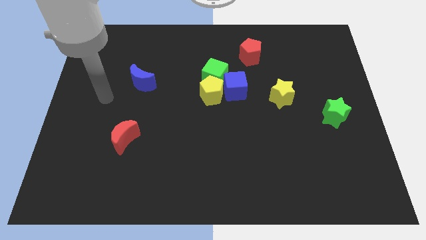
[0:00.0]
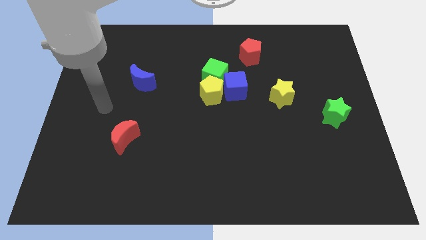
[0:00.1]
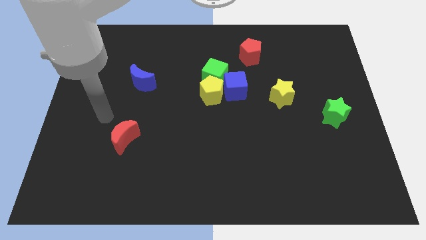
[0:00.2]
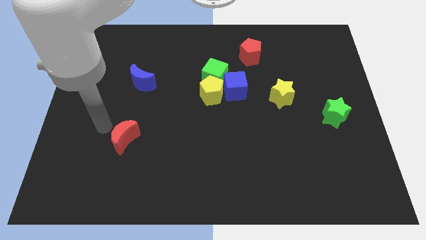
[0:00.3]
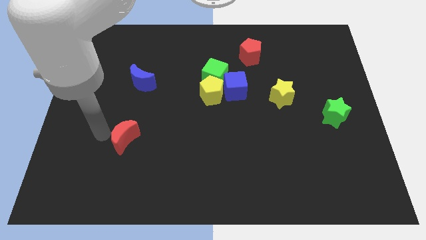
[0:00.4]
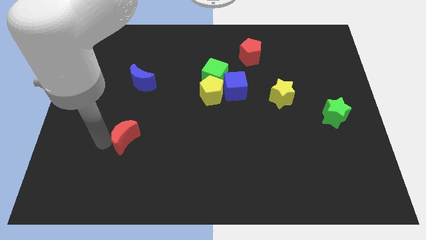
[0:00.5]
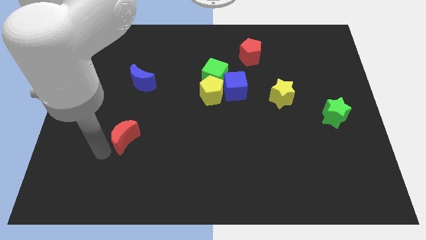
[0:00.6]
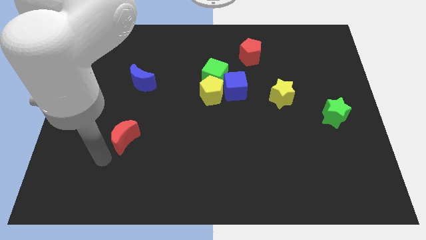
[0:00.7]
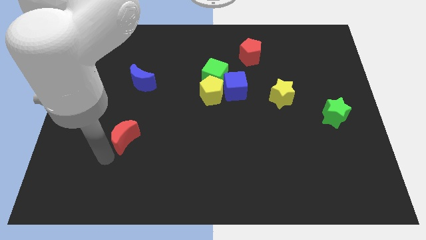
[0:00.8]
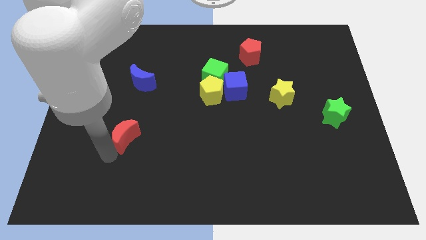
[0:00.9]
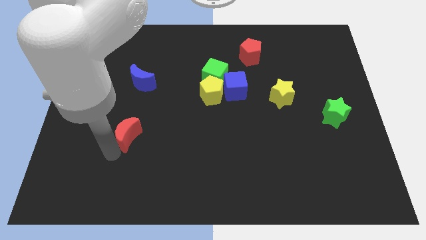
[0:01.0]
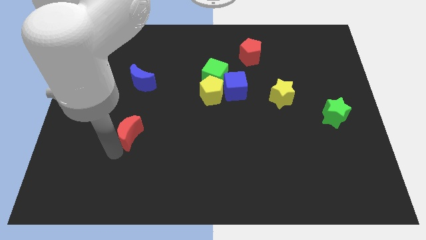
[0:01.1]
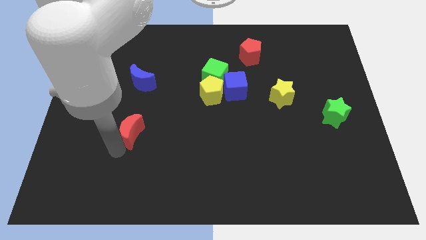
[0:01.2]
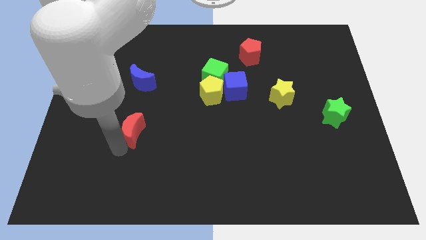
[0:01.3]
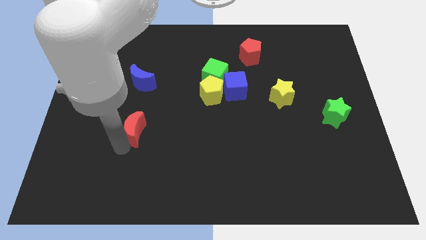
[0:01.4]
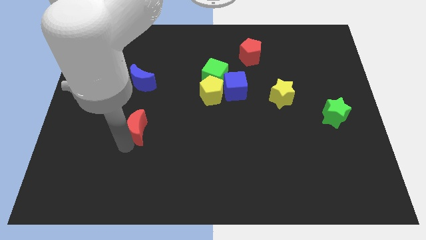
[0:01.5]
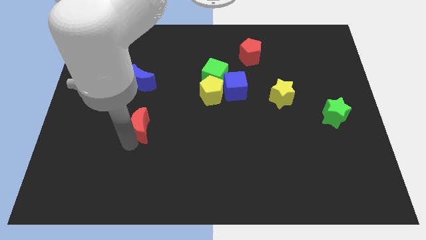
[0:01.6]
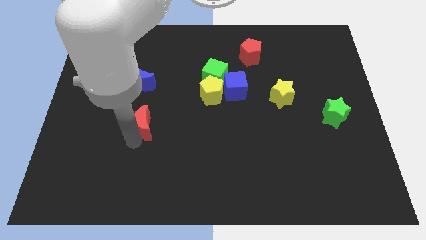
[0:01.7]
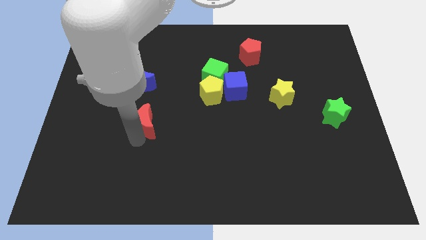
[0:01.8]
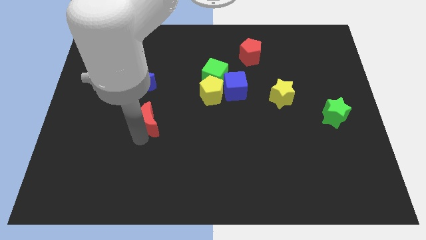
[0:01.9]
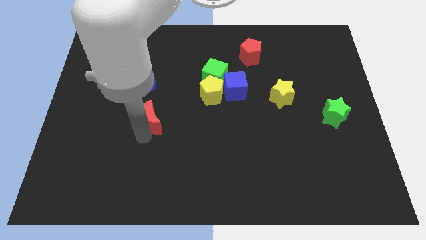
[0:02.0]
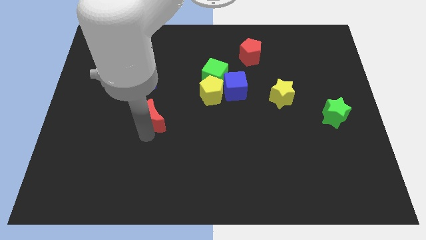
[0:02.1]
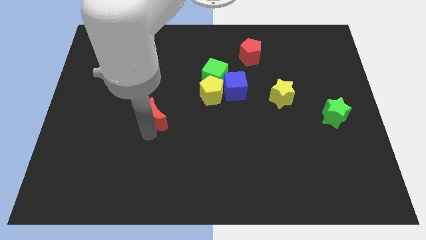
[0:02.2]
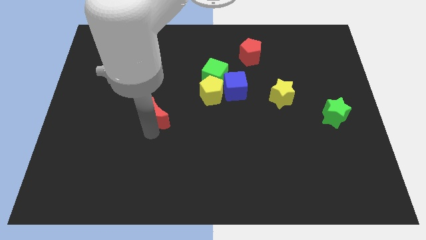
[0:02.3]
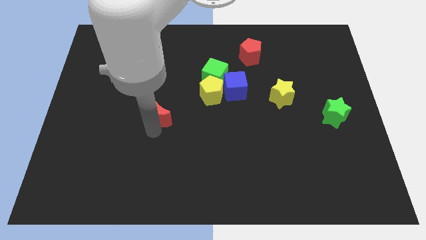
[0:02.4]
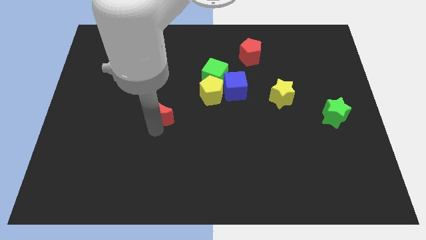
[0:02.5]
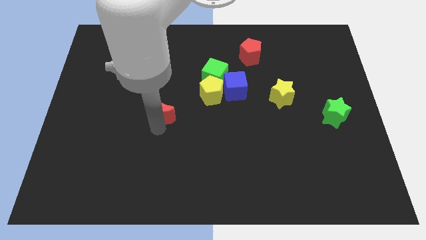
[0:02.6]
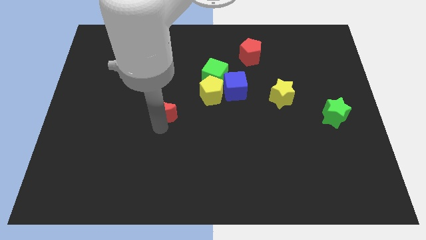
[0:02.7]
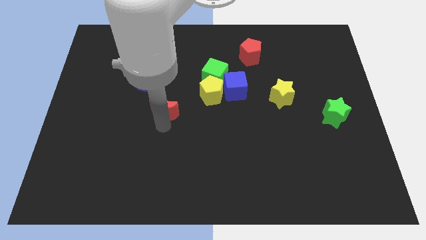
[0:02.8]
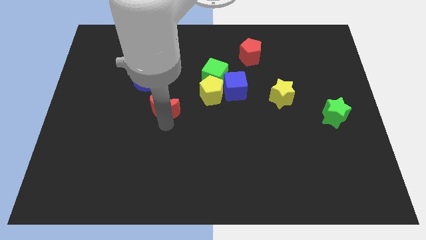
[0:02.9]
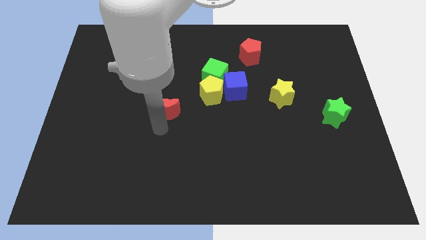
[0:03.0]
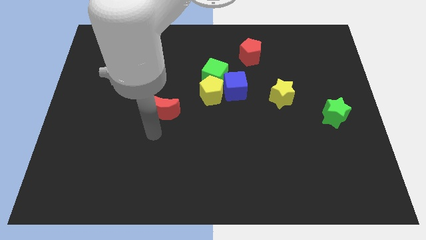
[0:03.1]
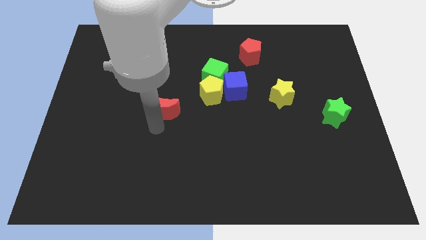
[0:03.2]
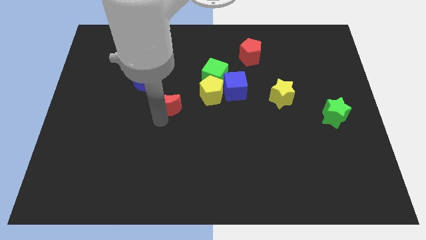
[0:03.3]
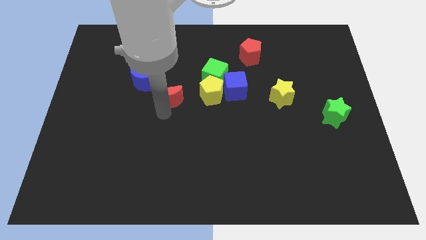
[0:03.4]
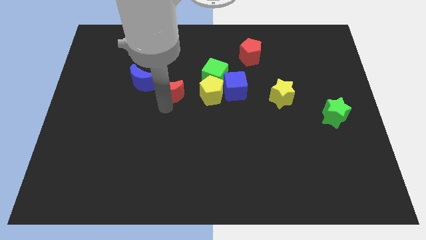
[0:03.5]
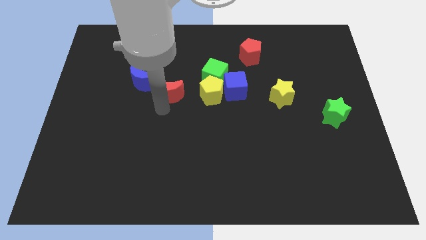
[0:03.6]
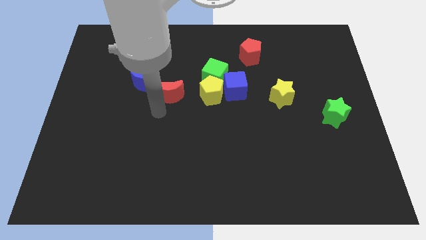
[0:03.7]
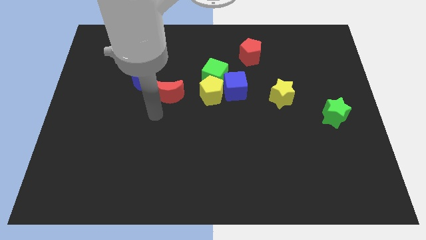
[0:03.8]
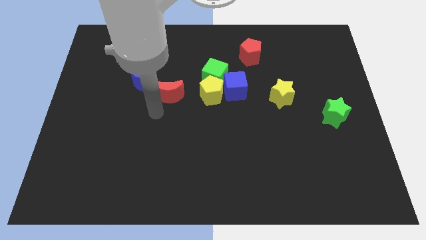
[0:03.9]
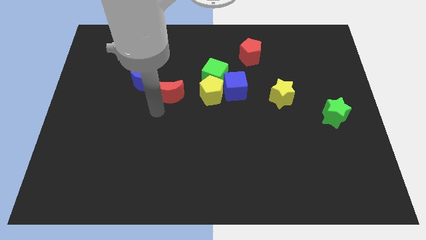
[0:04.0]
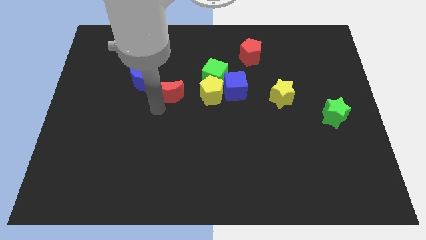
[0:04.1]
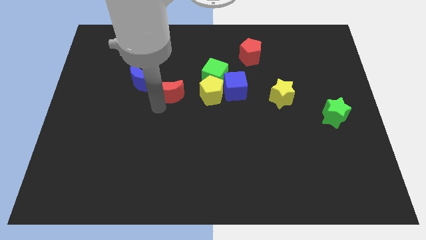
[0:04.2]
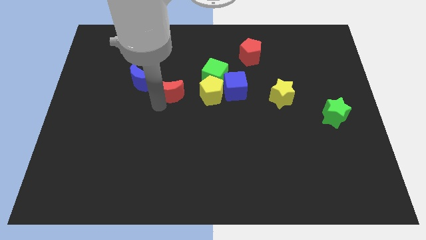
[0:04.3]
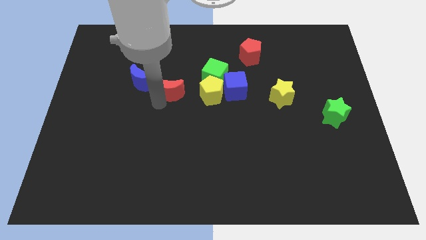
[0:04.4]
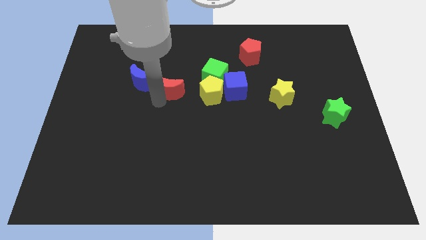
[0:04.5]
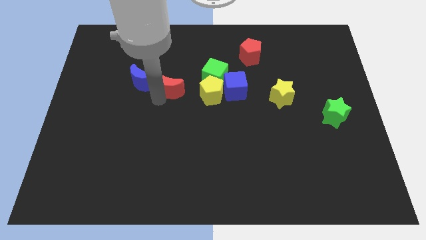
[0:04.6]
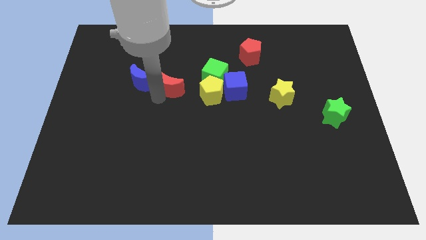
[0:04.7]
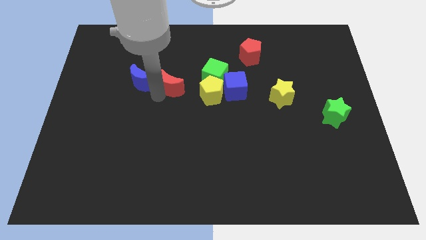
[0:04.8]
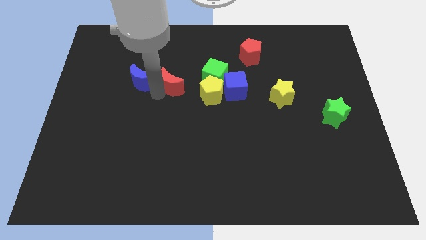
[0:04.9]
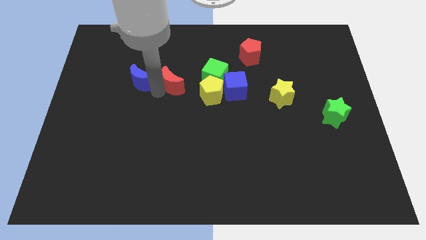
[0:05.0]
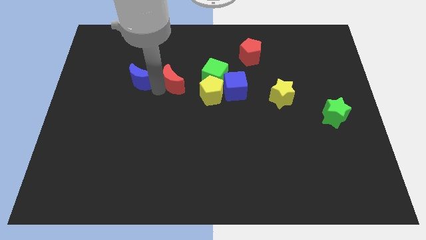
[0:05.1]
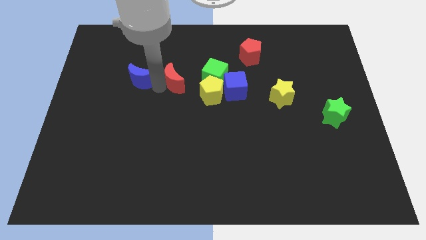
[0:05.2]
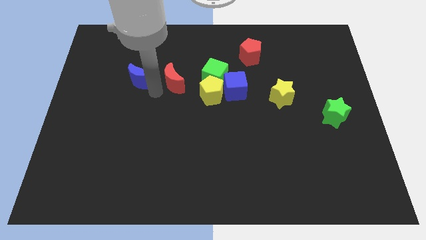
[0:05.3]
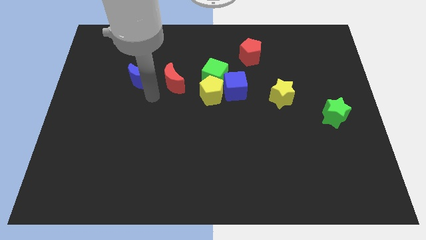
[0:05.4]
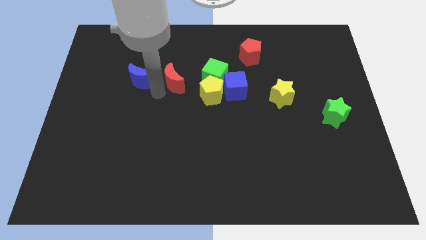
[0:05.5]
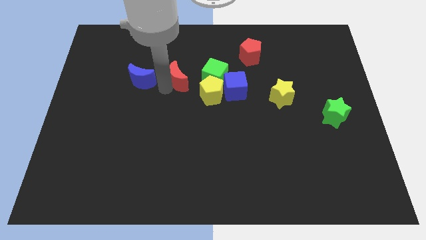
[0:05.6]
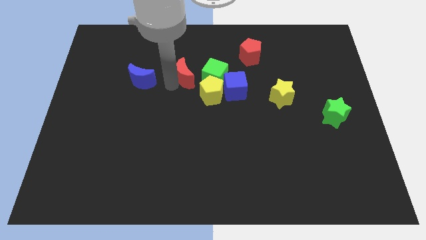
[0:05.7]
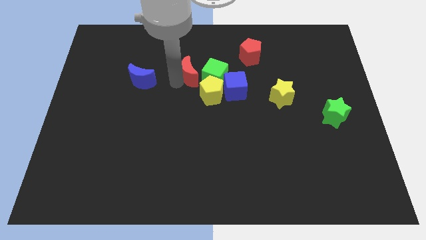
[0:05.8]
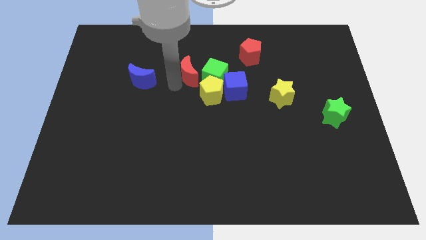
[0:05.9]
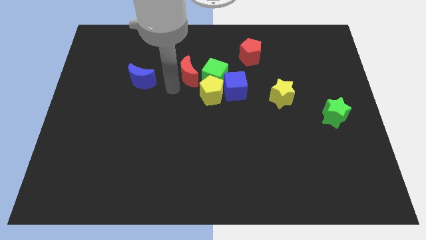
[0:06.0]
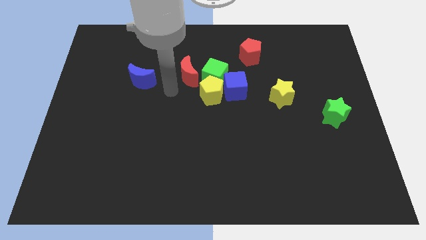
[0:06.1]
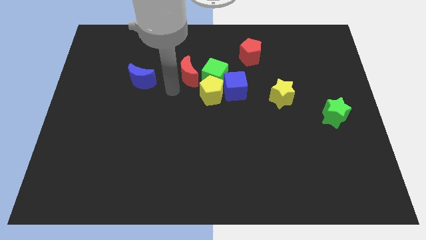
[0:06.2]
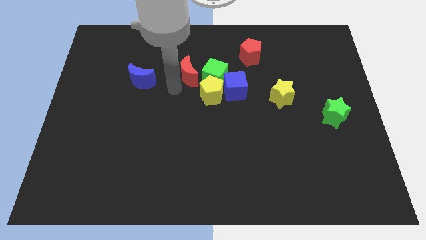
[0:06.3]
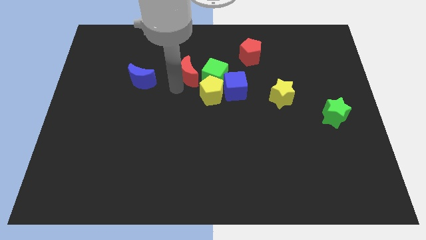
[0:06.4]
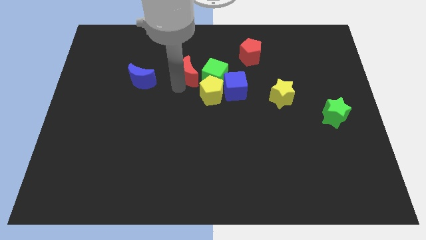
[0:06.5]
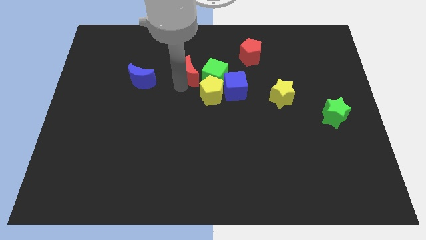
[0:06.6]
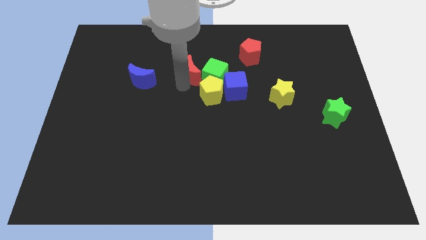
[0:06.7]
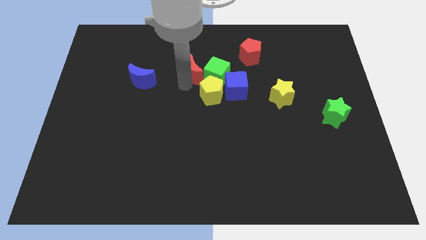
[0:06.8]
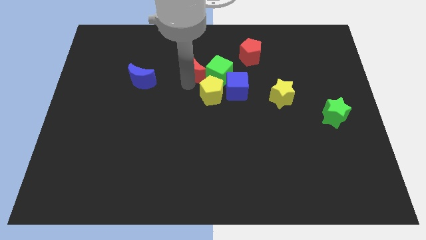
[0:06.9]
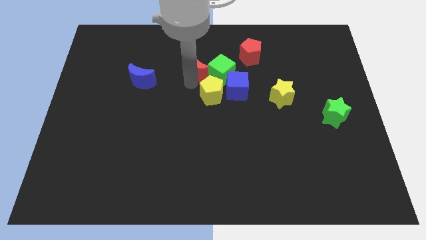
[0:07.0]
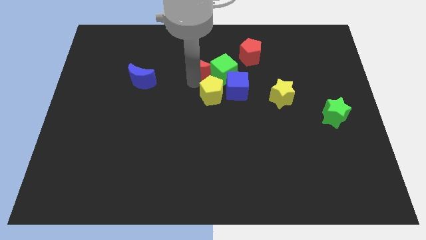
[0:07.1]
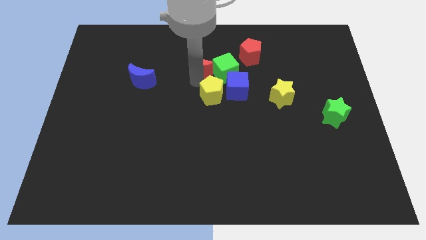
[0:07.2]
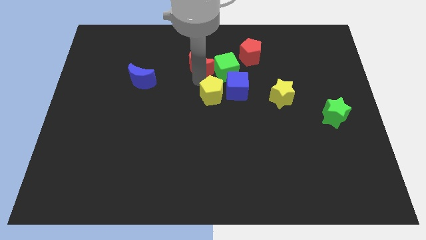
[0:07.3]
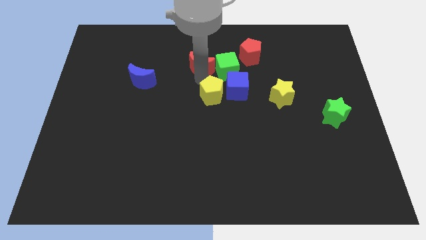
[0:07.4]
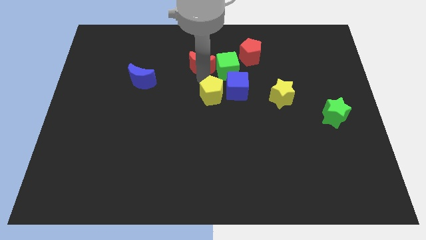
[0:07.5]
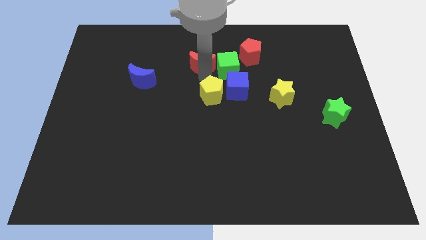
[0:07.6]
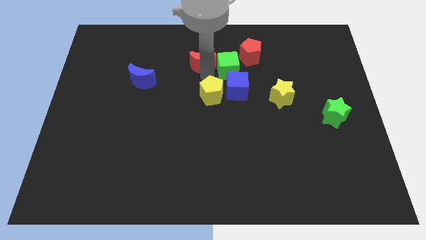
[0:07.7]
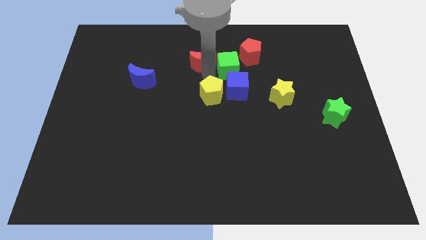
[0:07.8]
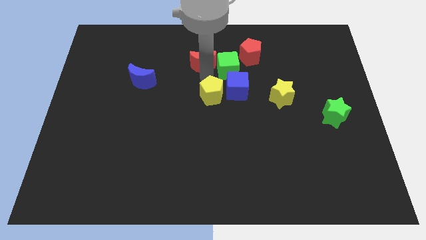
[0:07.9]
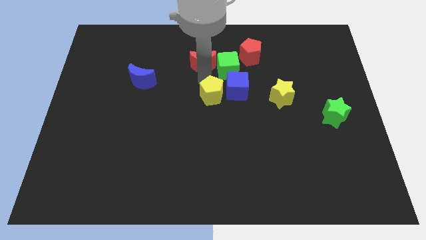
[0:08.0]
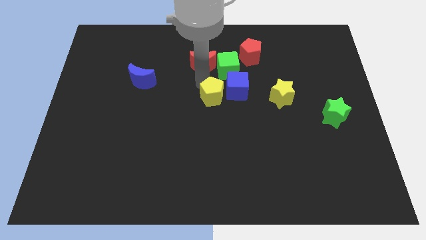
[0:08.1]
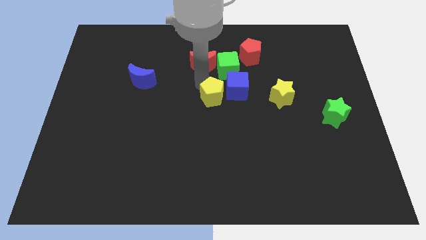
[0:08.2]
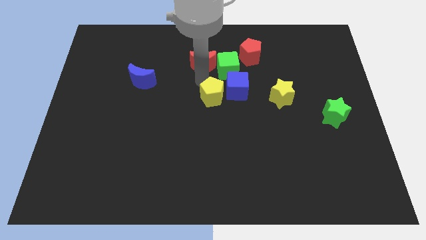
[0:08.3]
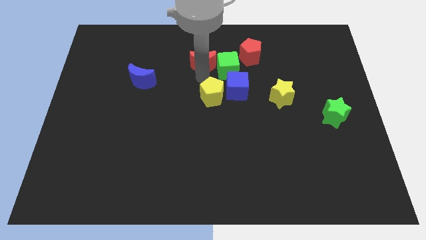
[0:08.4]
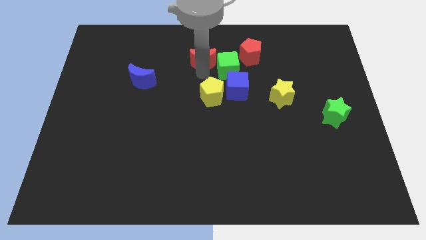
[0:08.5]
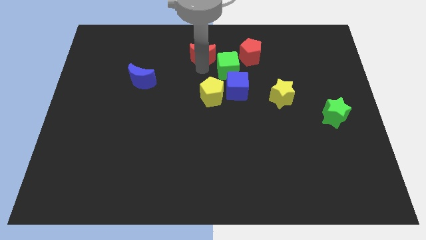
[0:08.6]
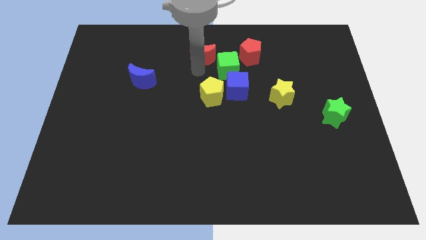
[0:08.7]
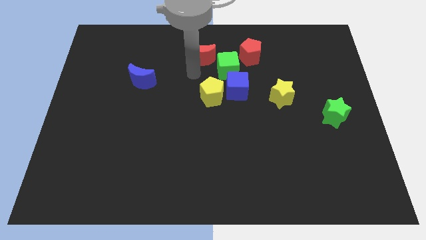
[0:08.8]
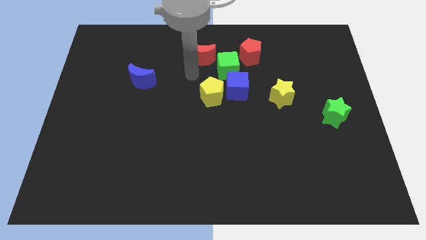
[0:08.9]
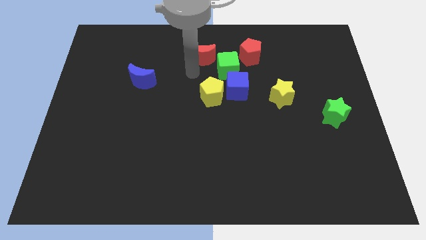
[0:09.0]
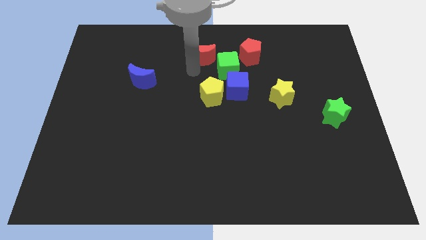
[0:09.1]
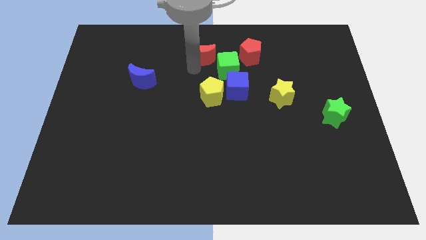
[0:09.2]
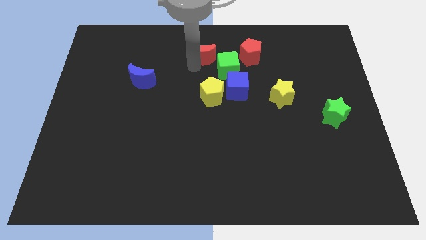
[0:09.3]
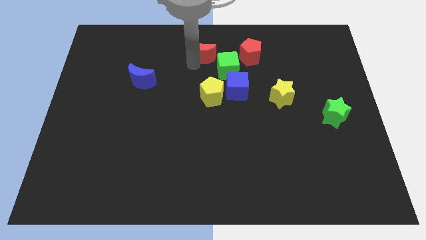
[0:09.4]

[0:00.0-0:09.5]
slide the red moon to the top
